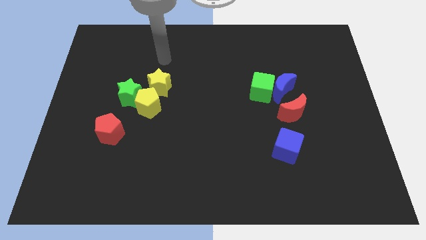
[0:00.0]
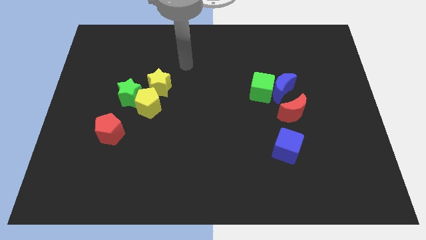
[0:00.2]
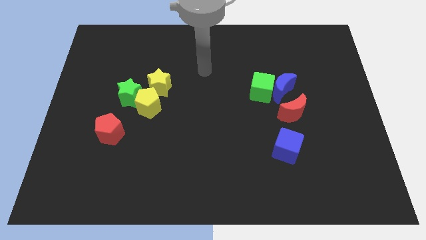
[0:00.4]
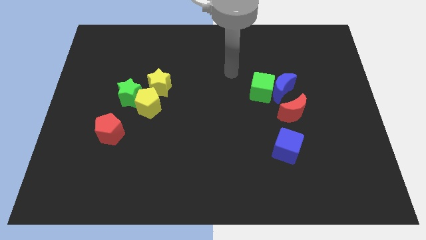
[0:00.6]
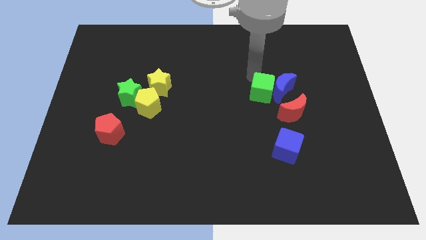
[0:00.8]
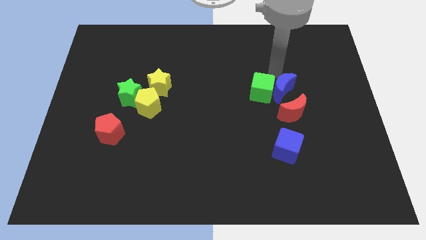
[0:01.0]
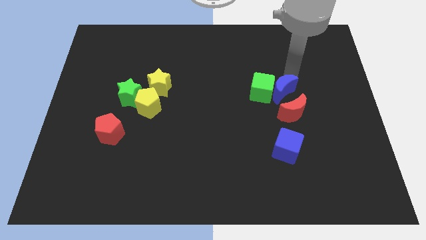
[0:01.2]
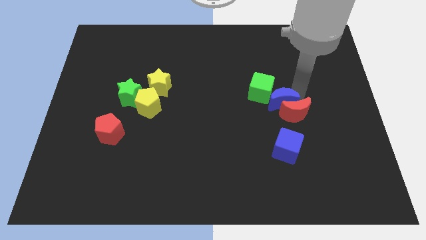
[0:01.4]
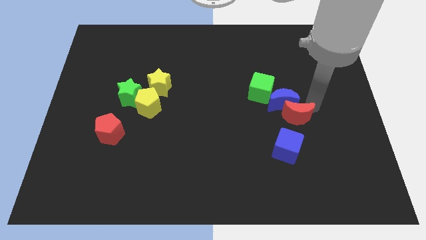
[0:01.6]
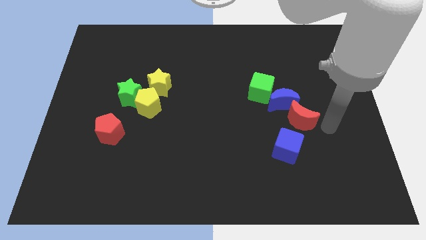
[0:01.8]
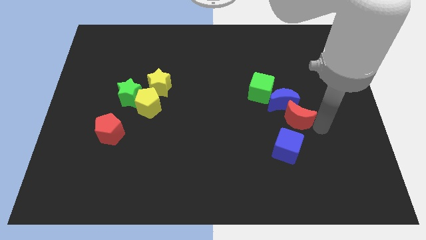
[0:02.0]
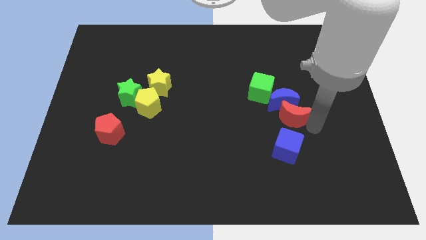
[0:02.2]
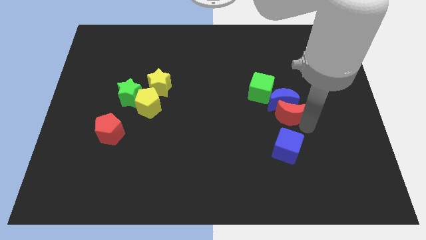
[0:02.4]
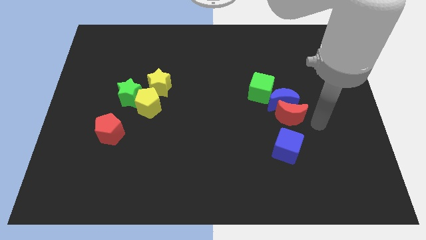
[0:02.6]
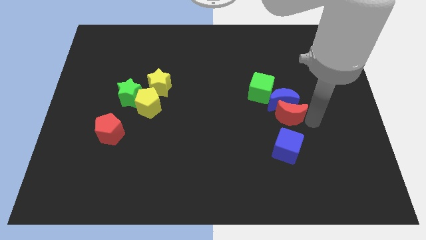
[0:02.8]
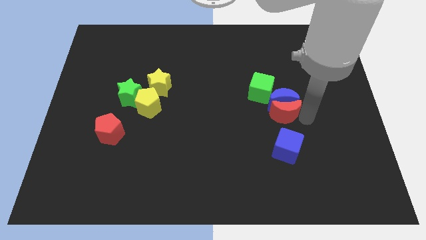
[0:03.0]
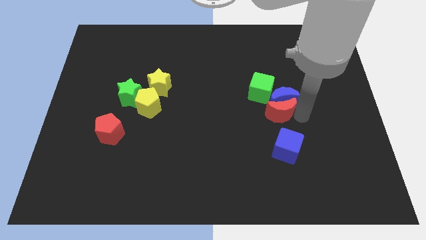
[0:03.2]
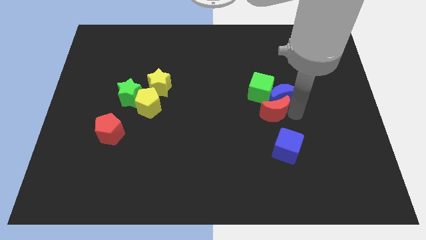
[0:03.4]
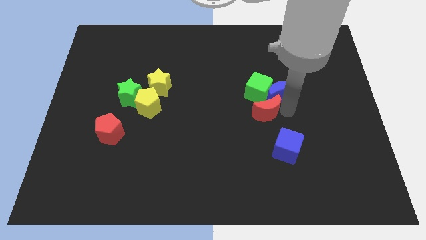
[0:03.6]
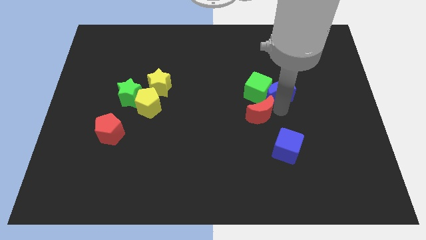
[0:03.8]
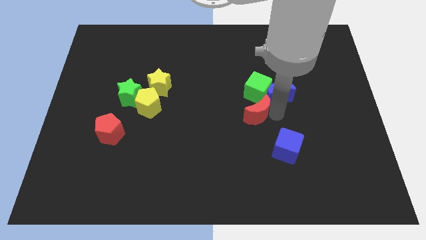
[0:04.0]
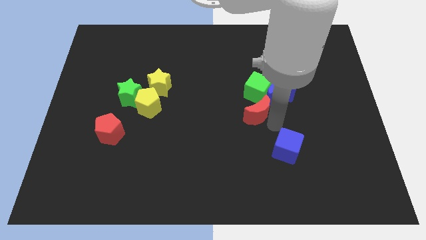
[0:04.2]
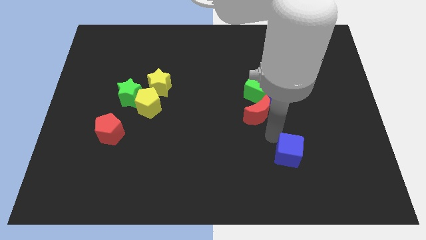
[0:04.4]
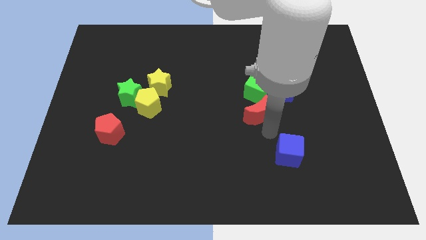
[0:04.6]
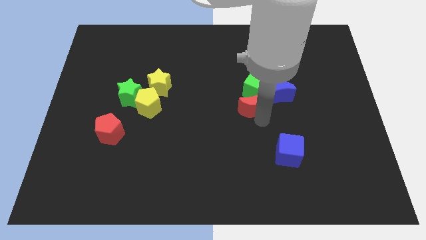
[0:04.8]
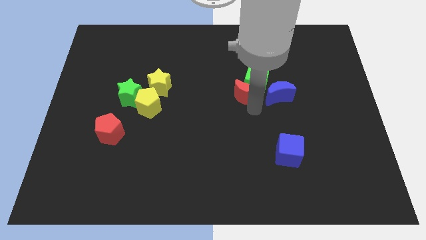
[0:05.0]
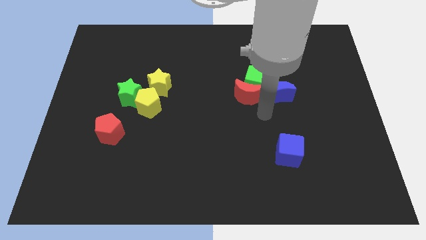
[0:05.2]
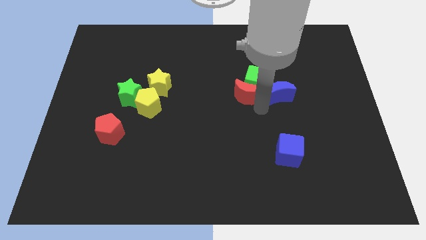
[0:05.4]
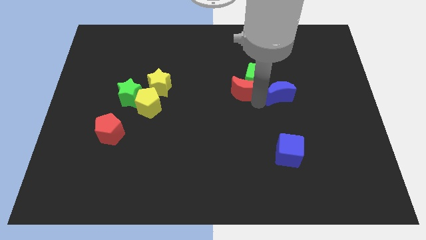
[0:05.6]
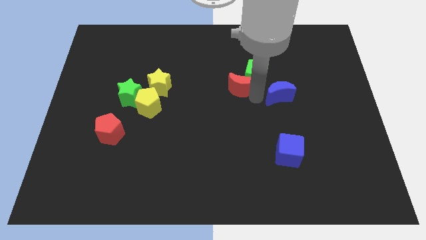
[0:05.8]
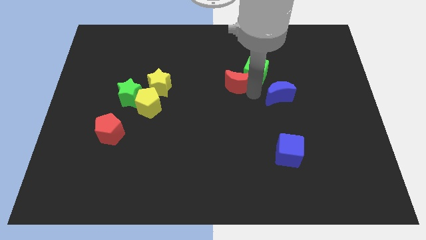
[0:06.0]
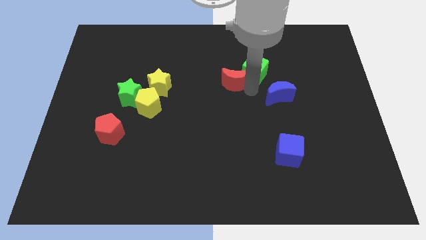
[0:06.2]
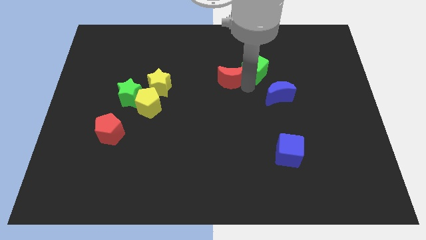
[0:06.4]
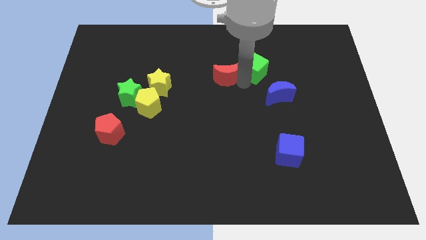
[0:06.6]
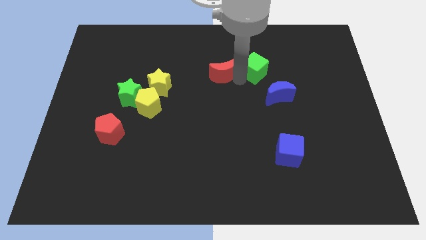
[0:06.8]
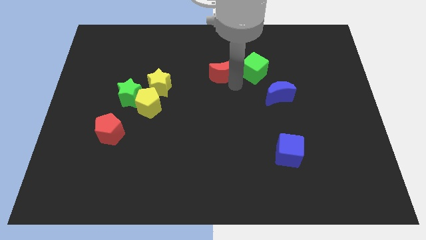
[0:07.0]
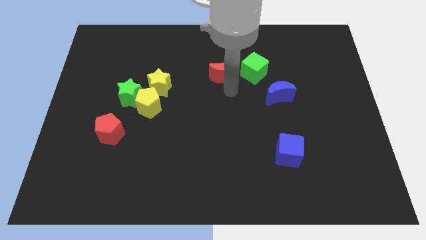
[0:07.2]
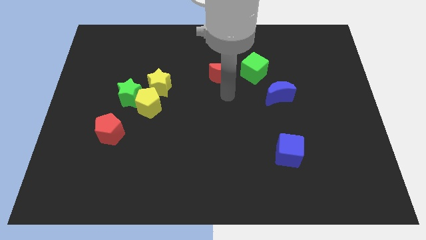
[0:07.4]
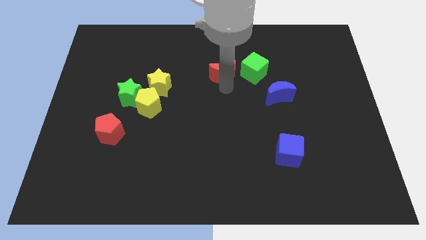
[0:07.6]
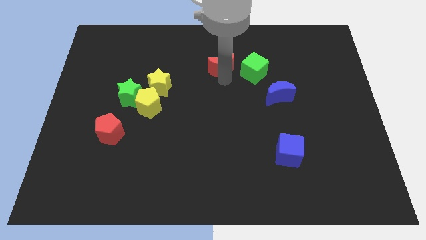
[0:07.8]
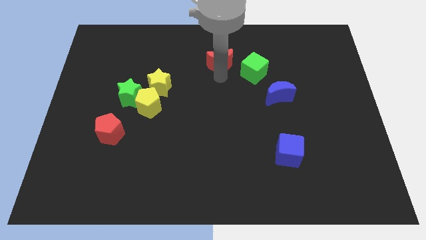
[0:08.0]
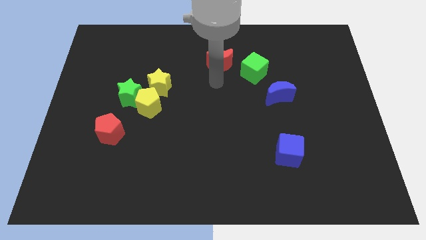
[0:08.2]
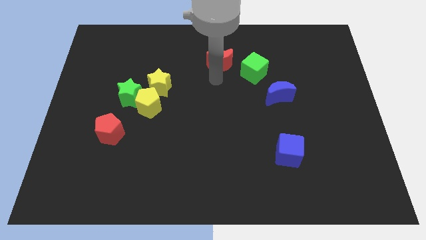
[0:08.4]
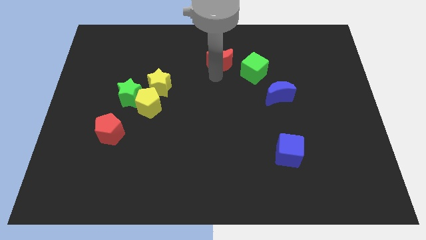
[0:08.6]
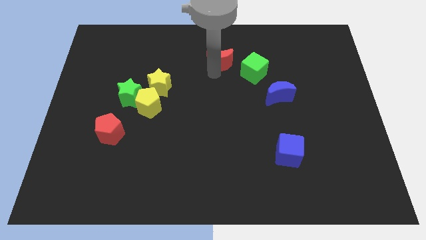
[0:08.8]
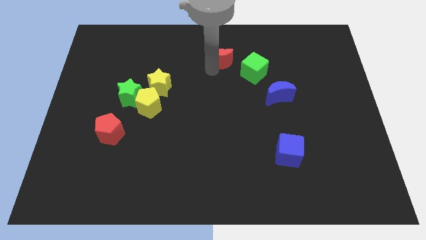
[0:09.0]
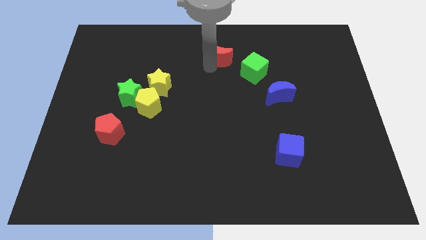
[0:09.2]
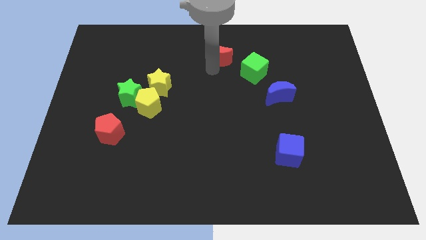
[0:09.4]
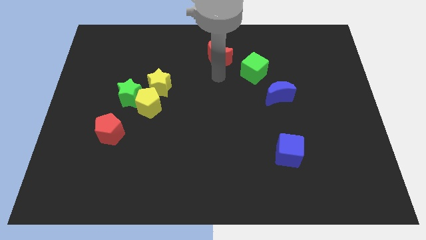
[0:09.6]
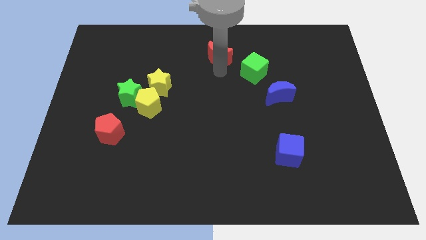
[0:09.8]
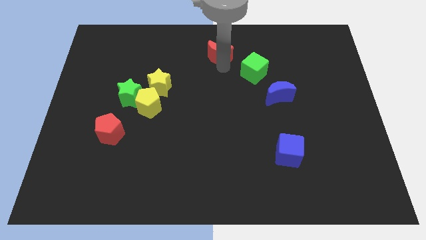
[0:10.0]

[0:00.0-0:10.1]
put the red moon to the top

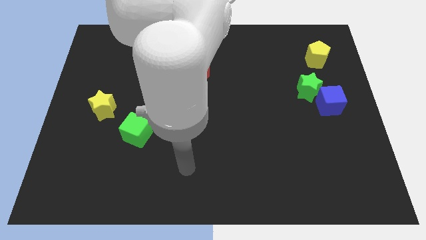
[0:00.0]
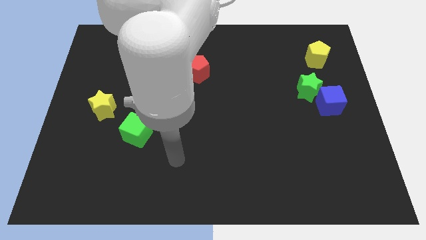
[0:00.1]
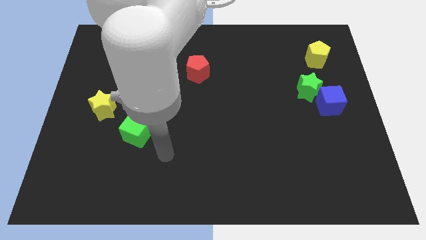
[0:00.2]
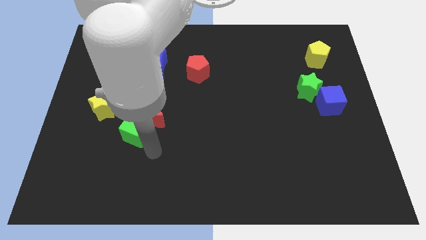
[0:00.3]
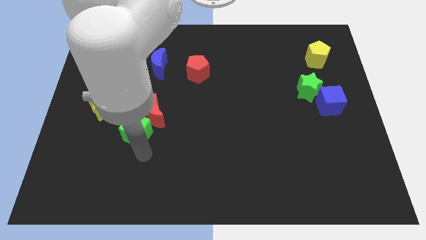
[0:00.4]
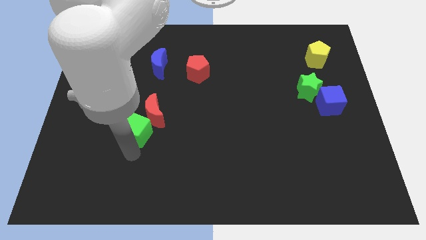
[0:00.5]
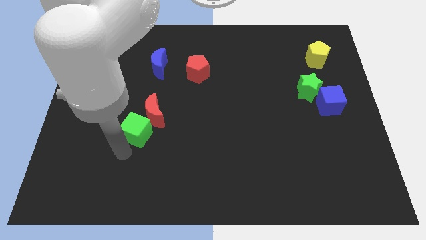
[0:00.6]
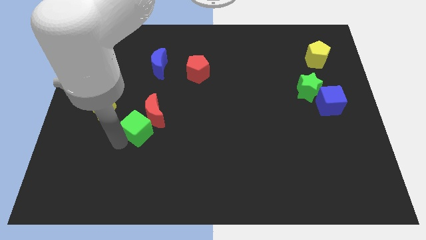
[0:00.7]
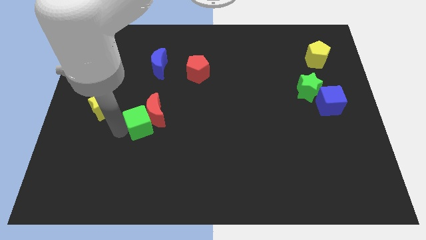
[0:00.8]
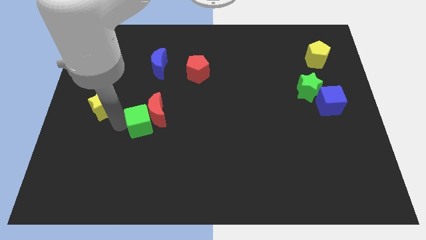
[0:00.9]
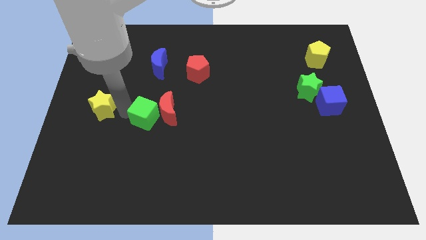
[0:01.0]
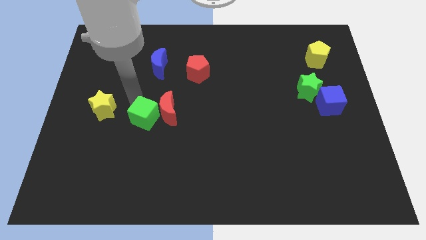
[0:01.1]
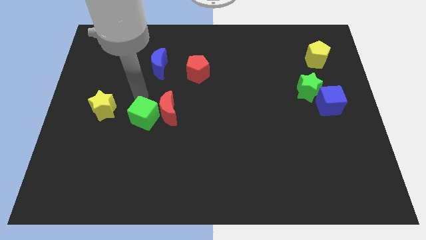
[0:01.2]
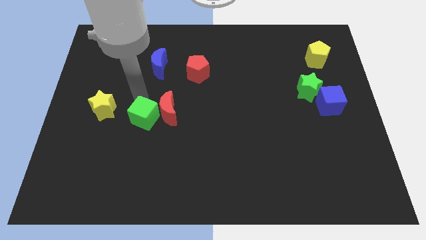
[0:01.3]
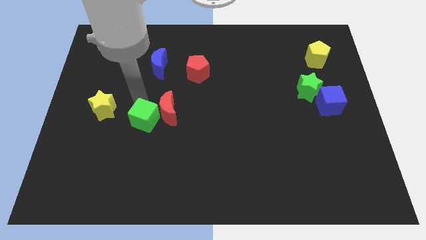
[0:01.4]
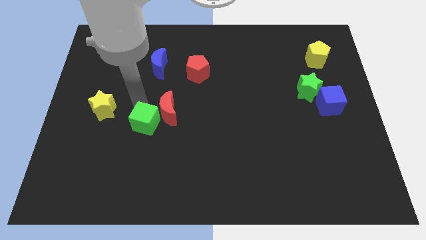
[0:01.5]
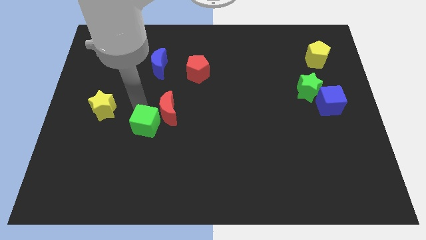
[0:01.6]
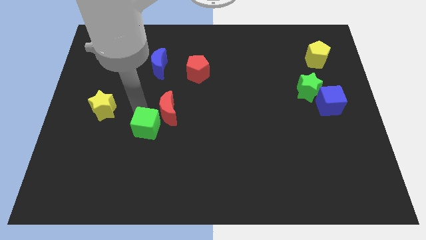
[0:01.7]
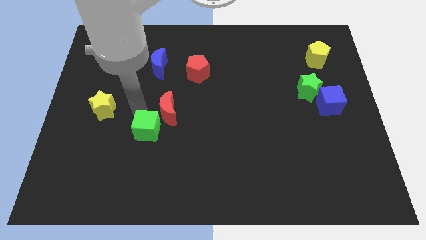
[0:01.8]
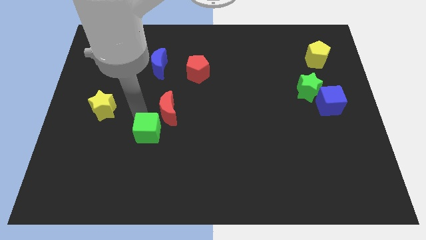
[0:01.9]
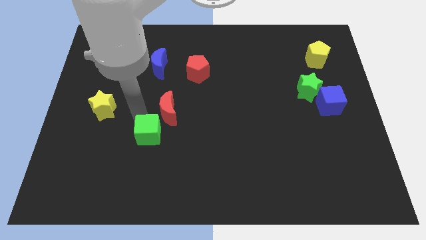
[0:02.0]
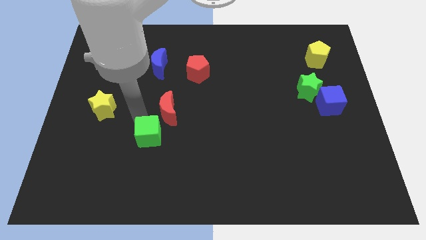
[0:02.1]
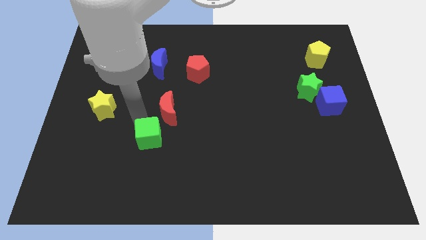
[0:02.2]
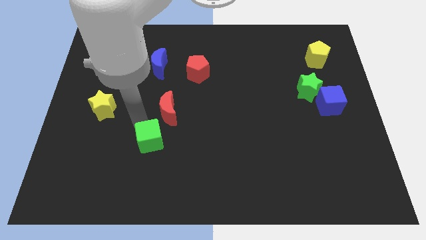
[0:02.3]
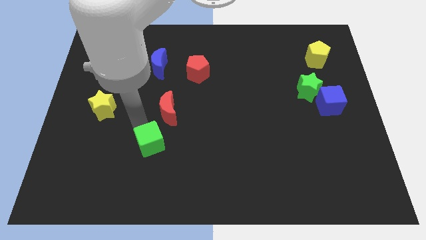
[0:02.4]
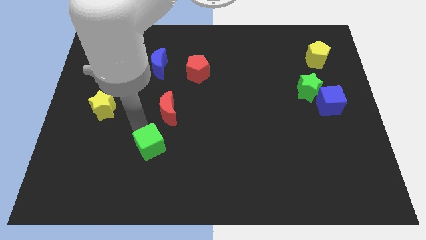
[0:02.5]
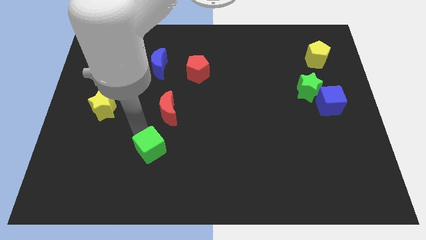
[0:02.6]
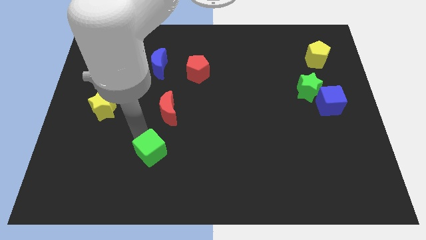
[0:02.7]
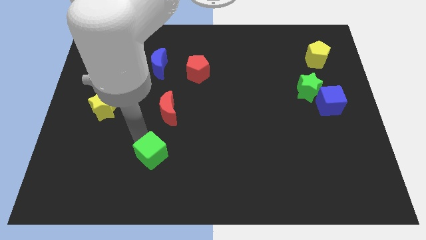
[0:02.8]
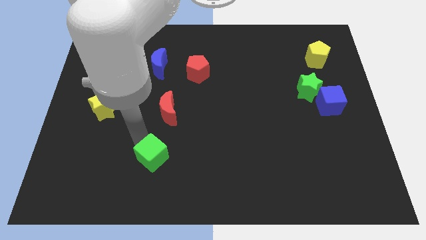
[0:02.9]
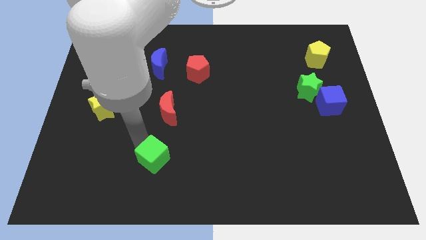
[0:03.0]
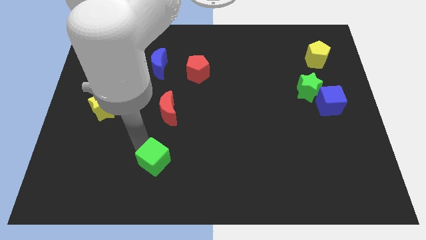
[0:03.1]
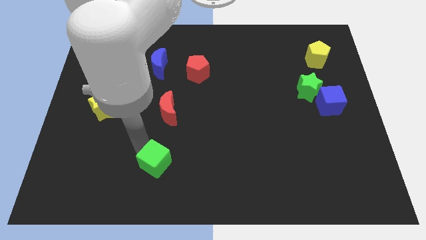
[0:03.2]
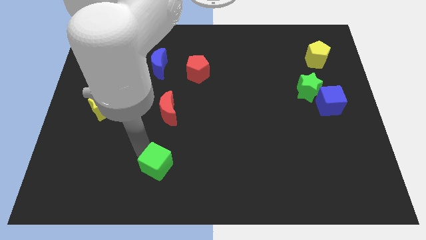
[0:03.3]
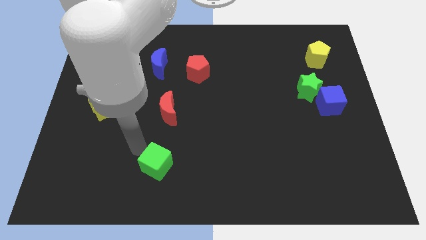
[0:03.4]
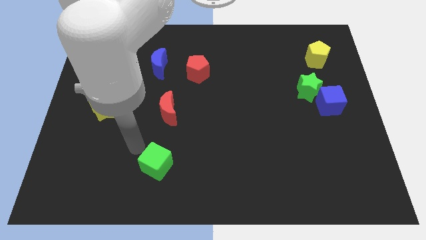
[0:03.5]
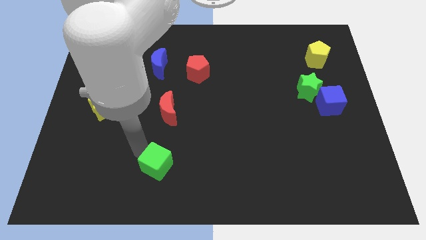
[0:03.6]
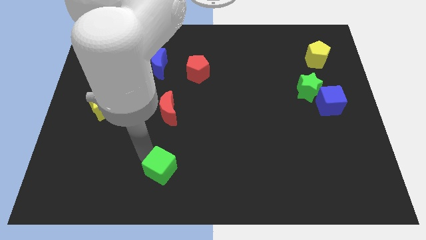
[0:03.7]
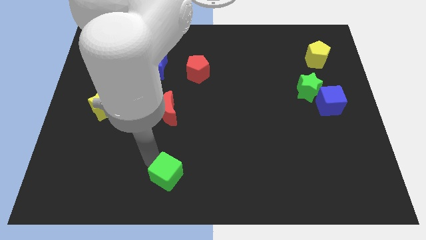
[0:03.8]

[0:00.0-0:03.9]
move the green cube to the bottom
